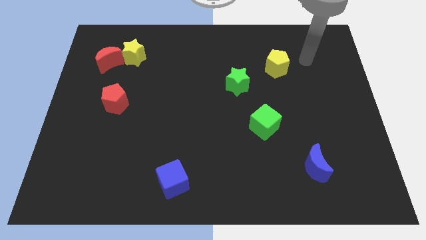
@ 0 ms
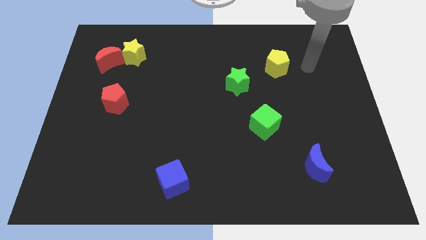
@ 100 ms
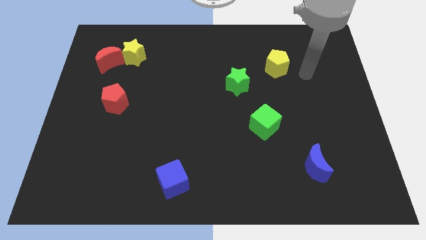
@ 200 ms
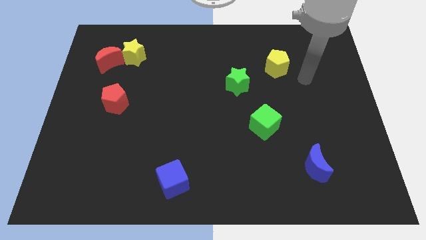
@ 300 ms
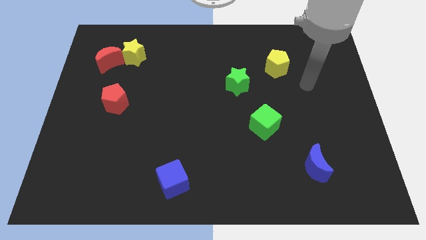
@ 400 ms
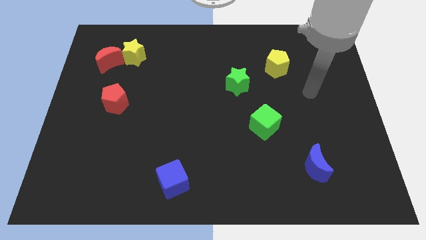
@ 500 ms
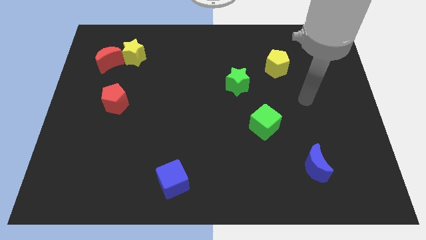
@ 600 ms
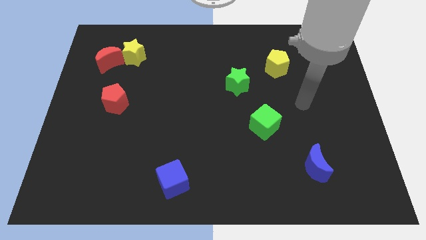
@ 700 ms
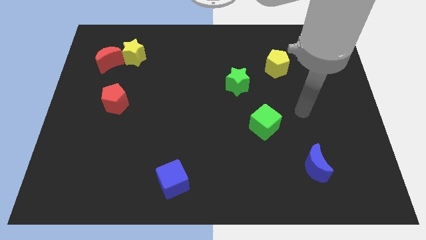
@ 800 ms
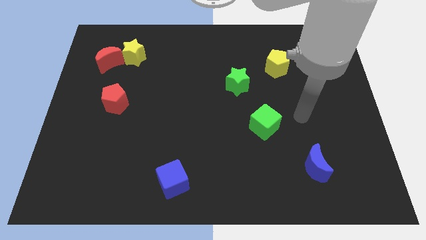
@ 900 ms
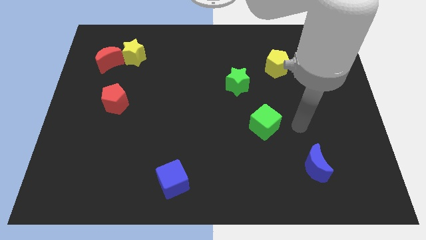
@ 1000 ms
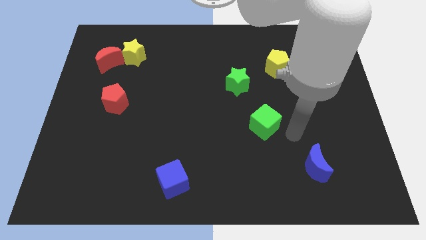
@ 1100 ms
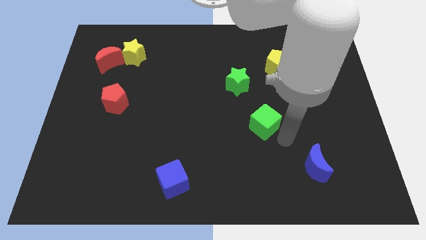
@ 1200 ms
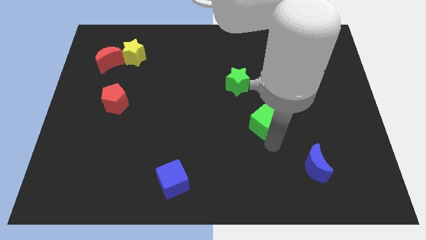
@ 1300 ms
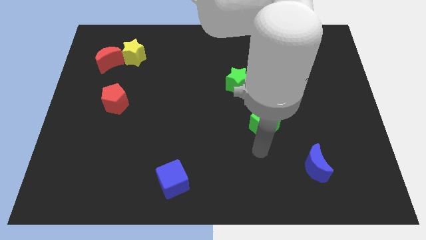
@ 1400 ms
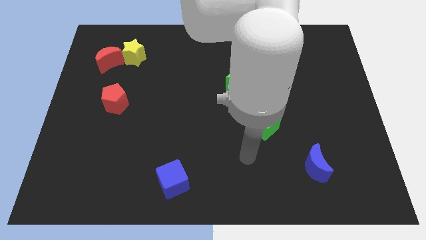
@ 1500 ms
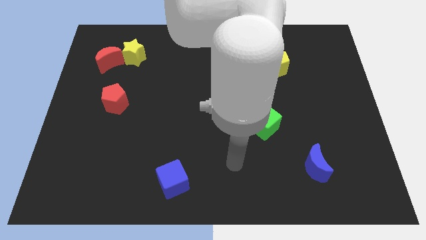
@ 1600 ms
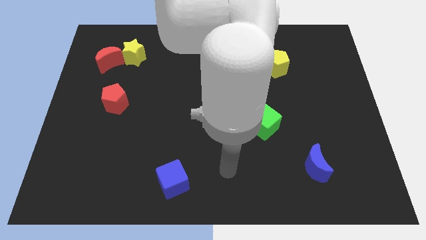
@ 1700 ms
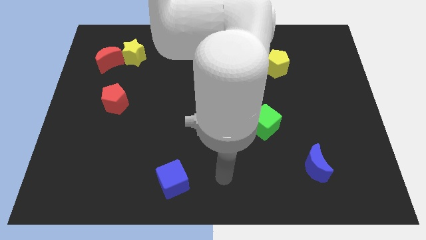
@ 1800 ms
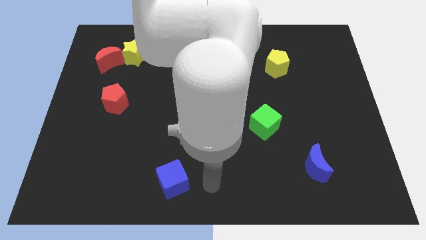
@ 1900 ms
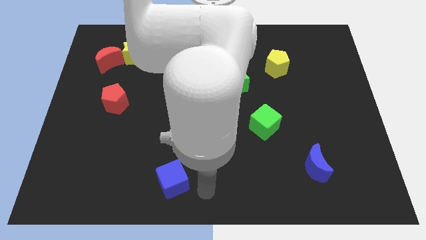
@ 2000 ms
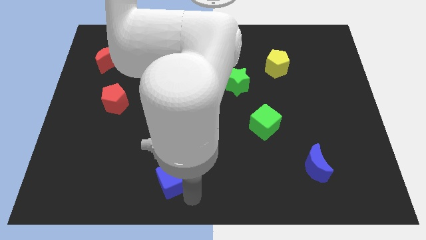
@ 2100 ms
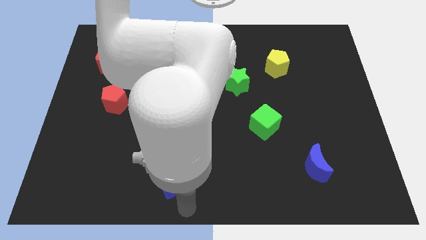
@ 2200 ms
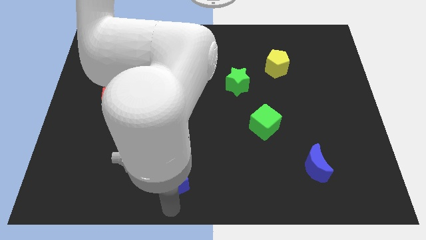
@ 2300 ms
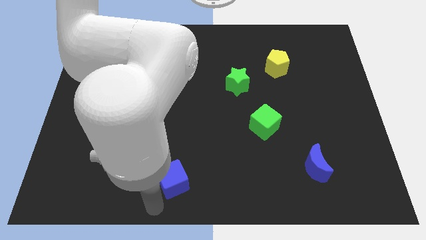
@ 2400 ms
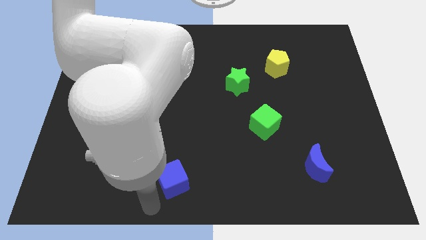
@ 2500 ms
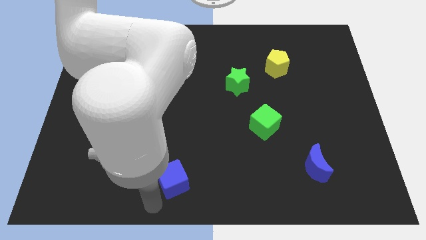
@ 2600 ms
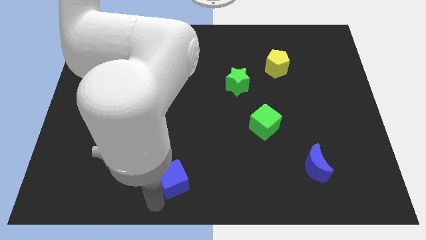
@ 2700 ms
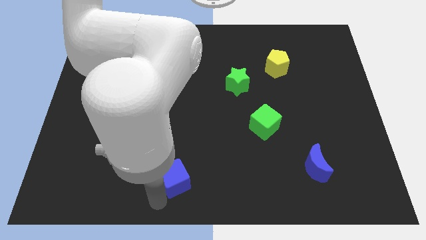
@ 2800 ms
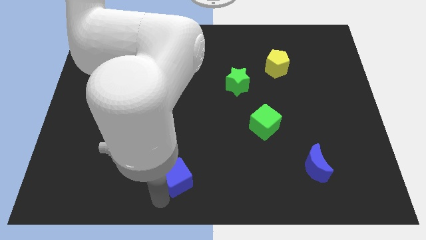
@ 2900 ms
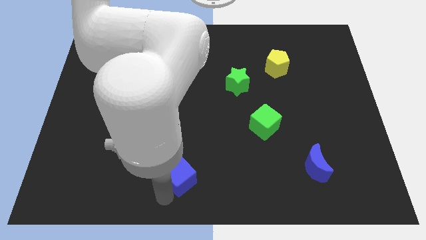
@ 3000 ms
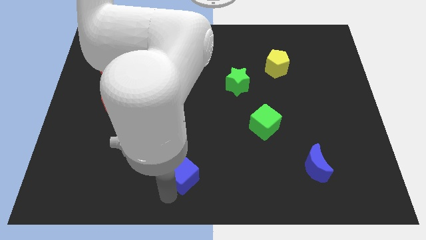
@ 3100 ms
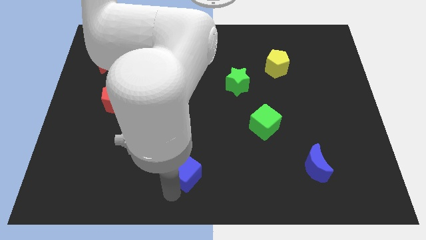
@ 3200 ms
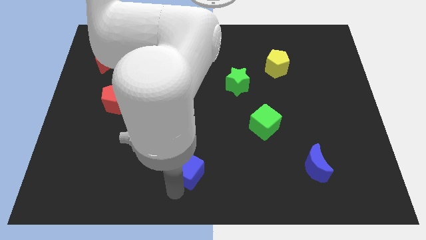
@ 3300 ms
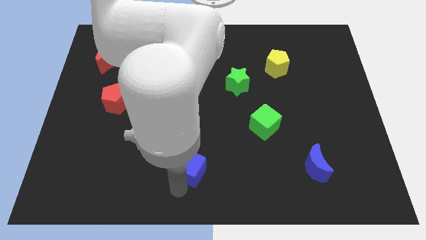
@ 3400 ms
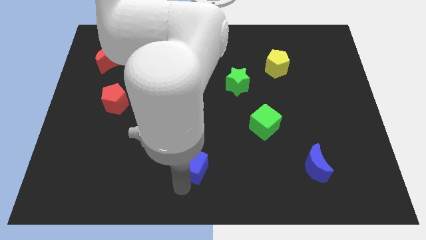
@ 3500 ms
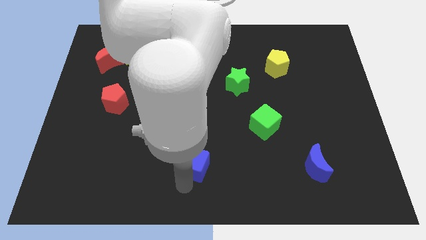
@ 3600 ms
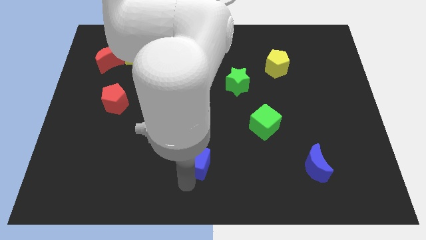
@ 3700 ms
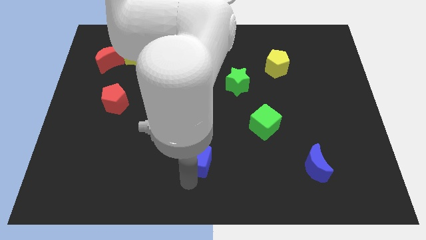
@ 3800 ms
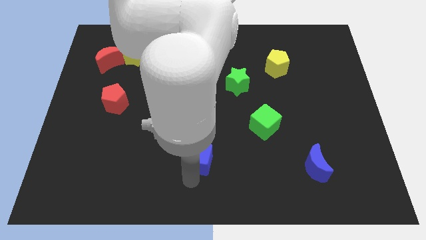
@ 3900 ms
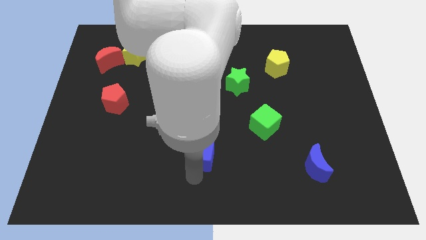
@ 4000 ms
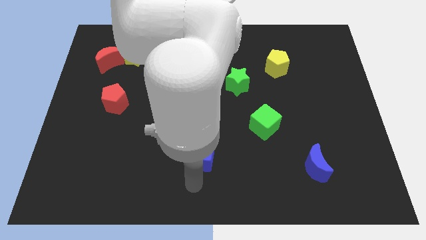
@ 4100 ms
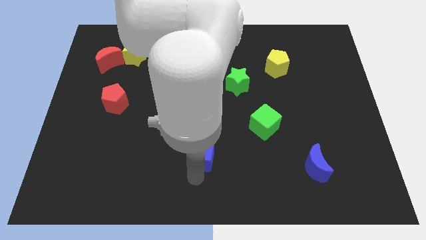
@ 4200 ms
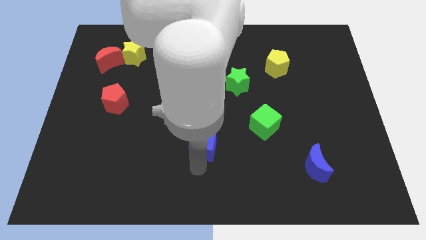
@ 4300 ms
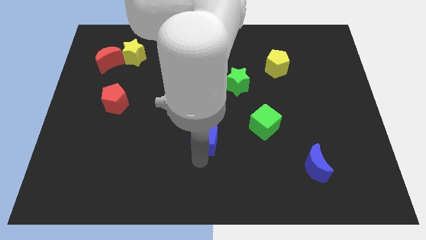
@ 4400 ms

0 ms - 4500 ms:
move the blue cube to the middle

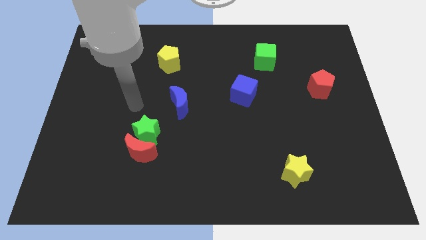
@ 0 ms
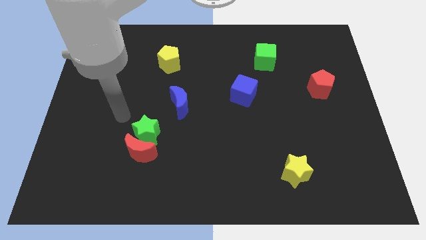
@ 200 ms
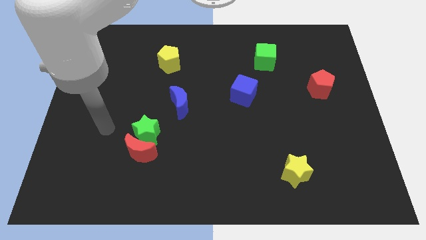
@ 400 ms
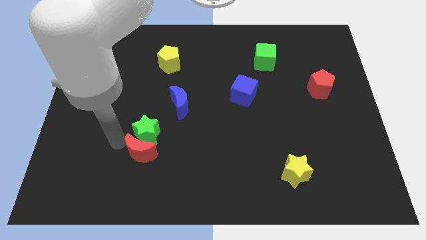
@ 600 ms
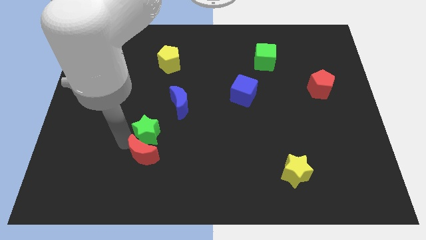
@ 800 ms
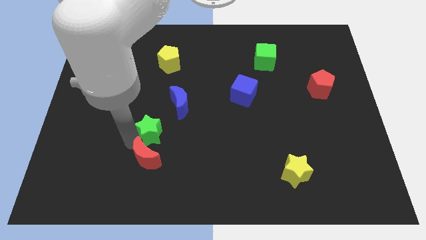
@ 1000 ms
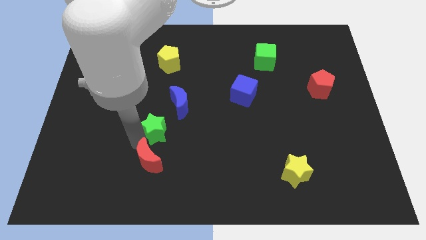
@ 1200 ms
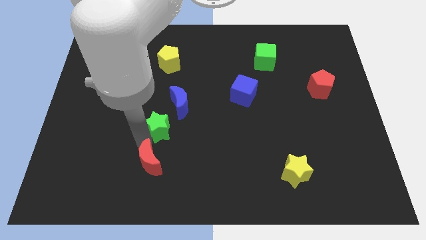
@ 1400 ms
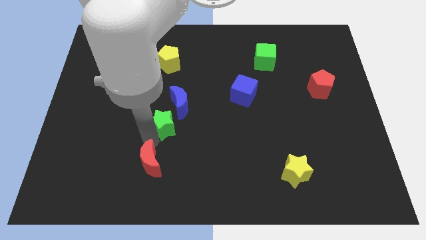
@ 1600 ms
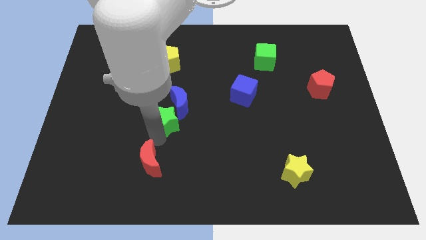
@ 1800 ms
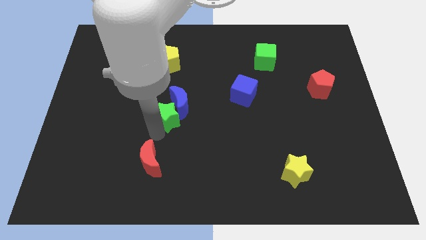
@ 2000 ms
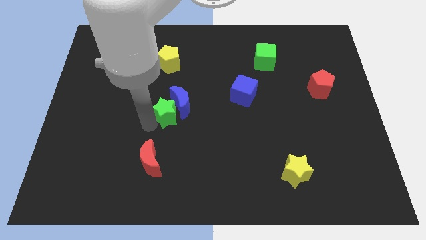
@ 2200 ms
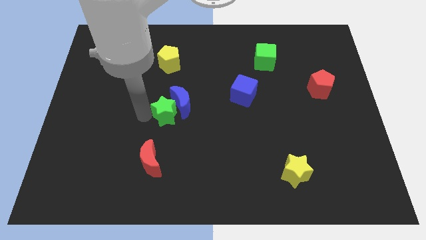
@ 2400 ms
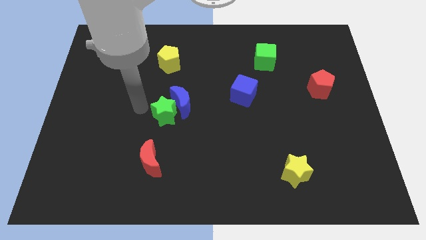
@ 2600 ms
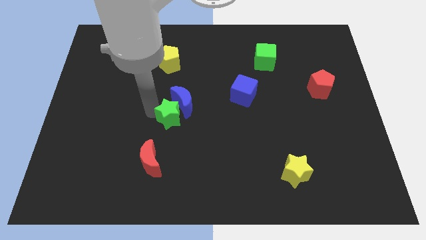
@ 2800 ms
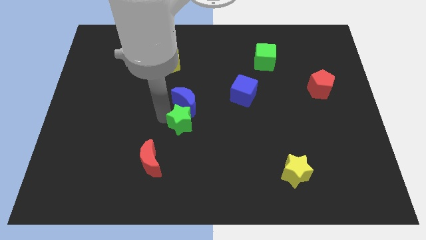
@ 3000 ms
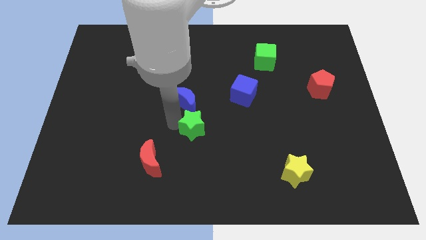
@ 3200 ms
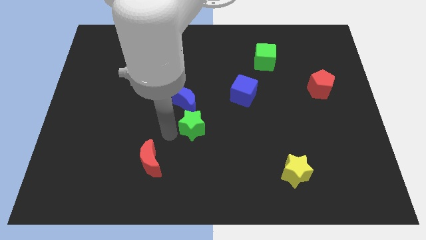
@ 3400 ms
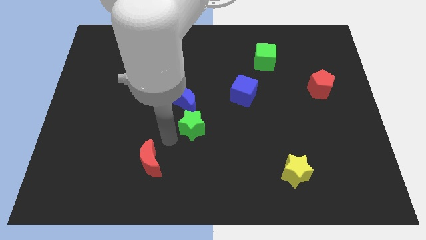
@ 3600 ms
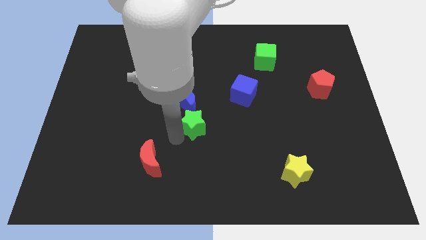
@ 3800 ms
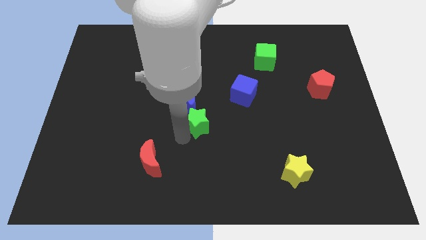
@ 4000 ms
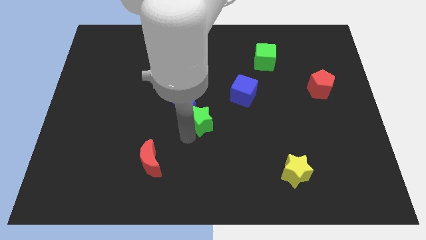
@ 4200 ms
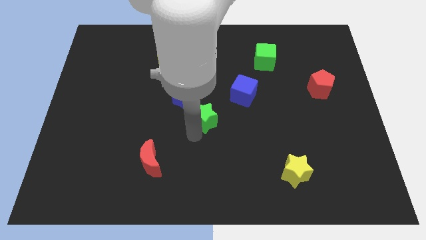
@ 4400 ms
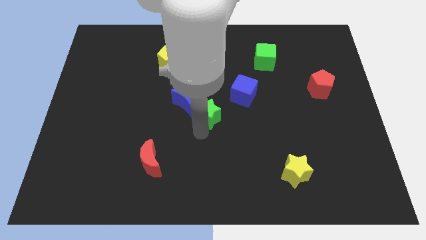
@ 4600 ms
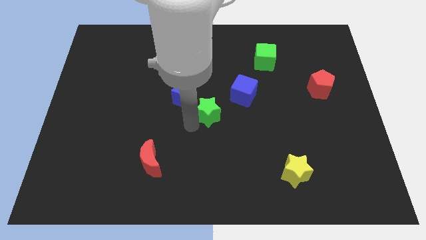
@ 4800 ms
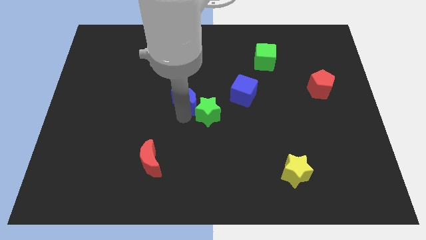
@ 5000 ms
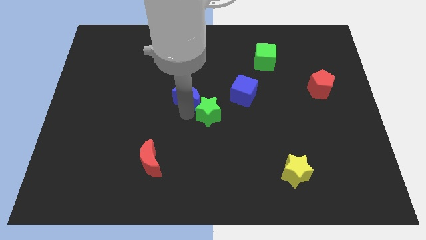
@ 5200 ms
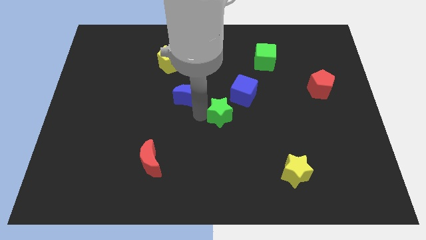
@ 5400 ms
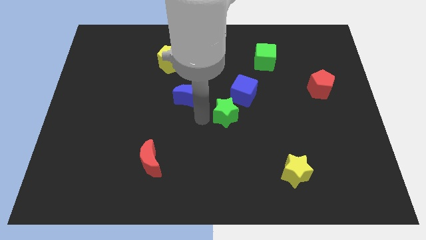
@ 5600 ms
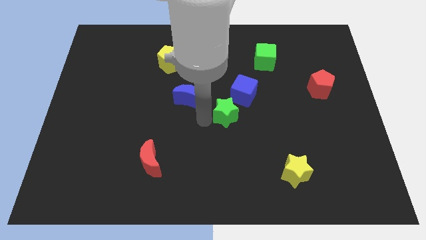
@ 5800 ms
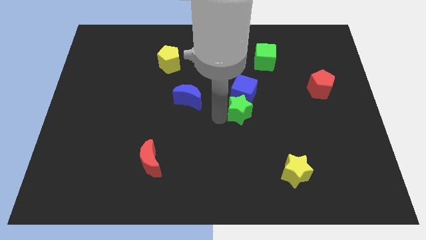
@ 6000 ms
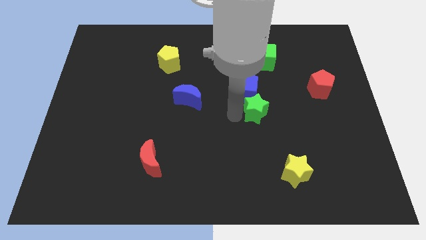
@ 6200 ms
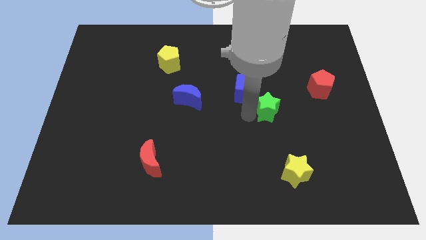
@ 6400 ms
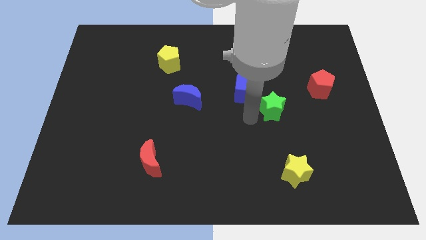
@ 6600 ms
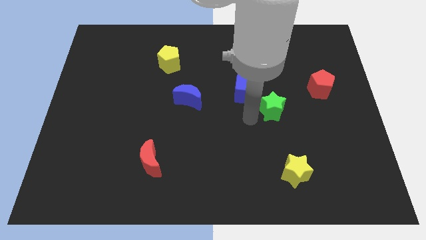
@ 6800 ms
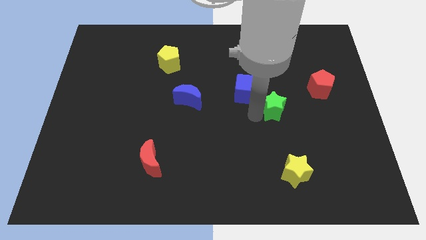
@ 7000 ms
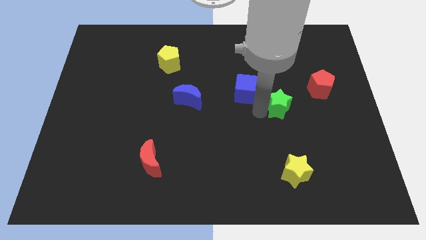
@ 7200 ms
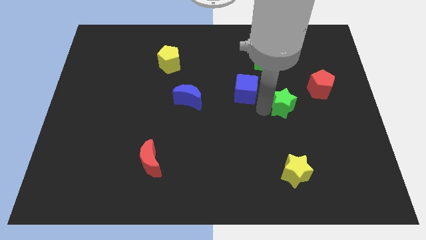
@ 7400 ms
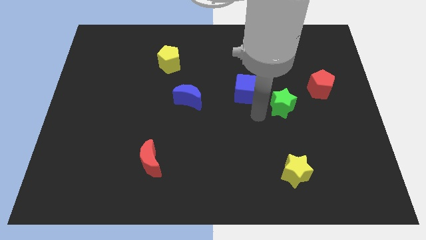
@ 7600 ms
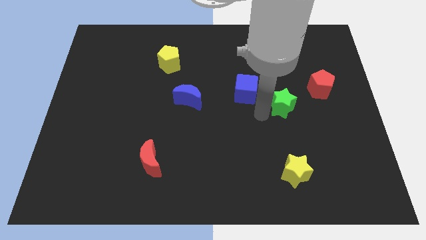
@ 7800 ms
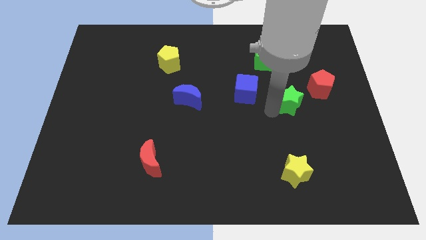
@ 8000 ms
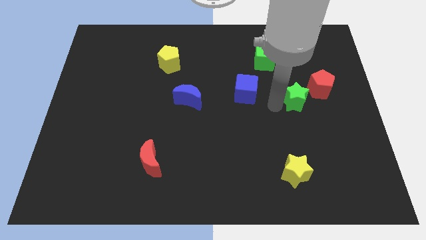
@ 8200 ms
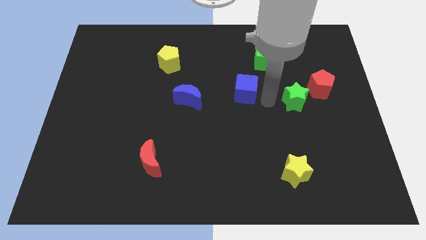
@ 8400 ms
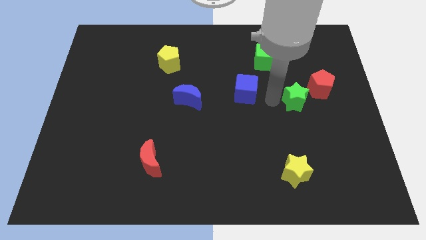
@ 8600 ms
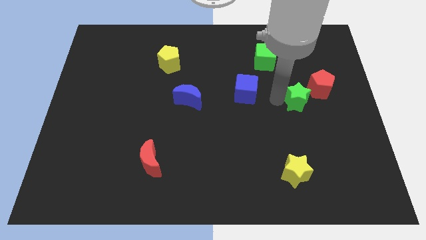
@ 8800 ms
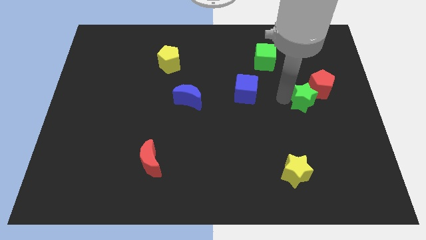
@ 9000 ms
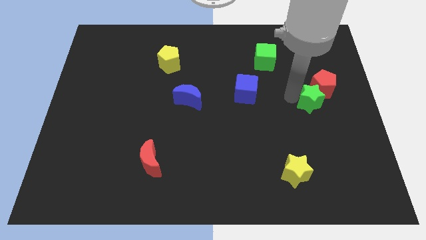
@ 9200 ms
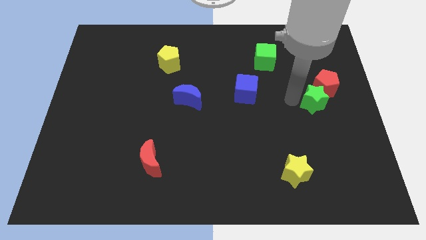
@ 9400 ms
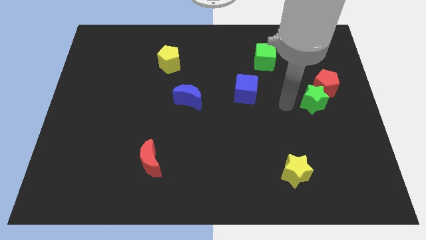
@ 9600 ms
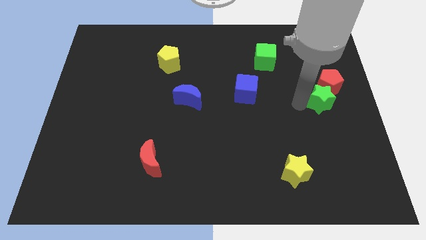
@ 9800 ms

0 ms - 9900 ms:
put the green star to the right side of the board
